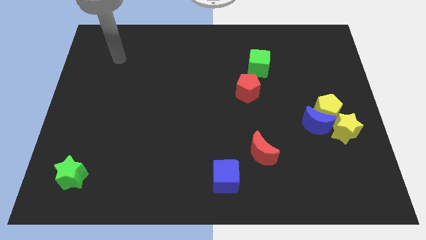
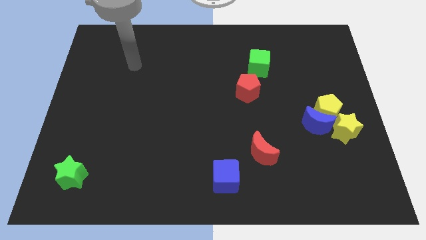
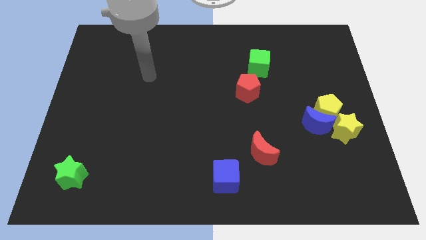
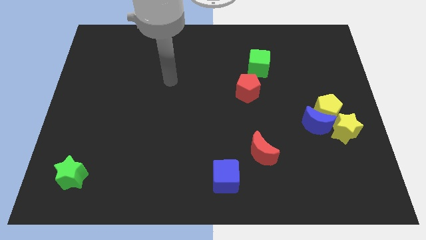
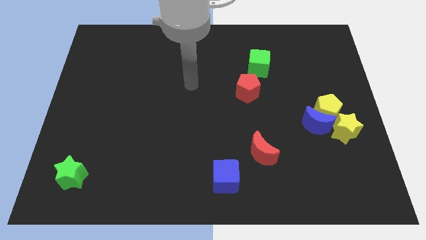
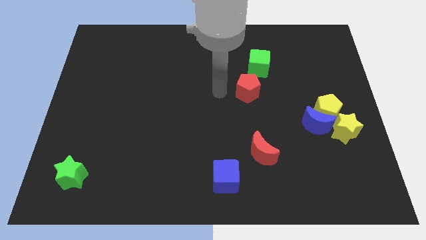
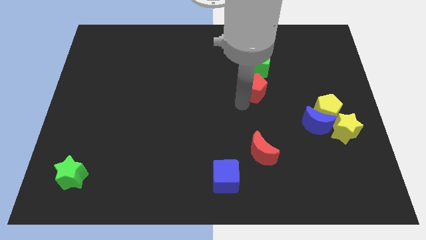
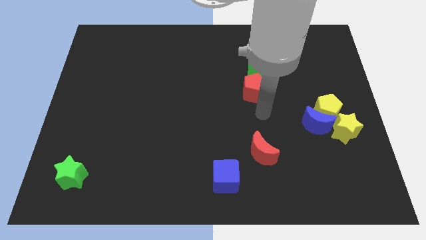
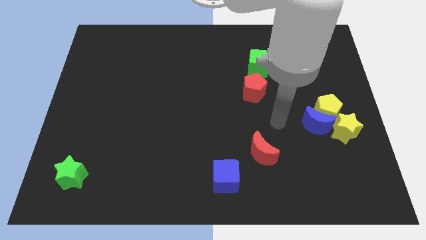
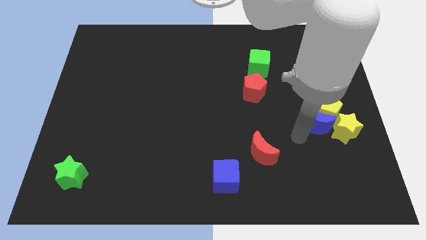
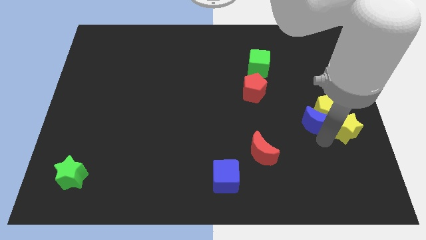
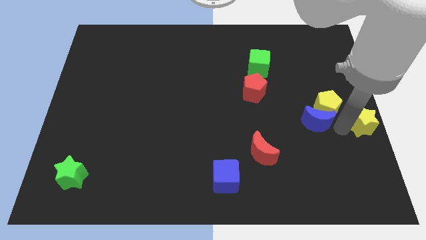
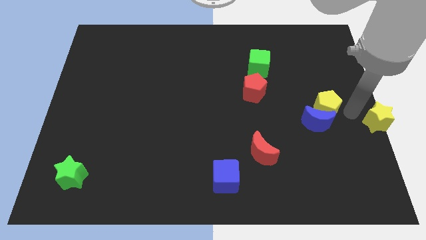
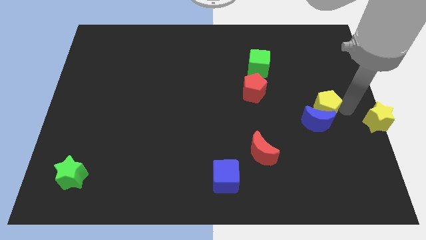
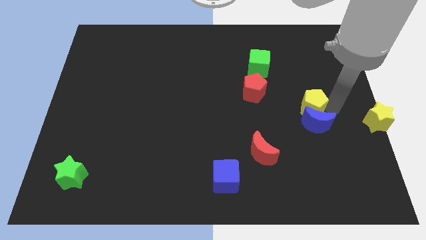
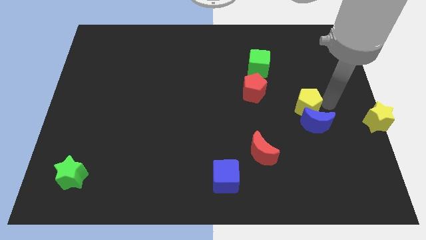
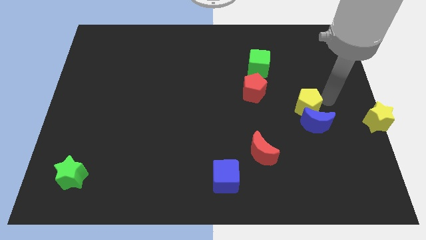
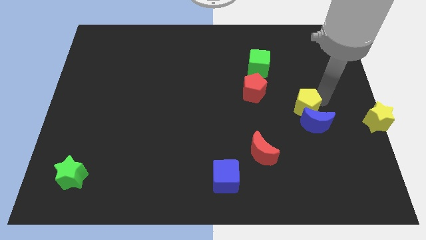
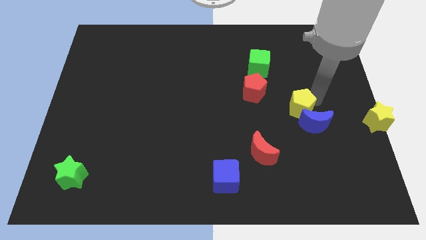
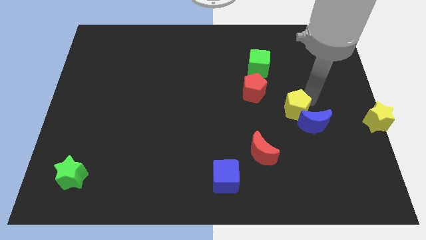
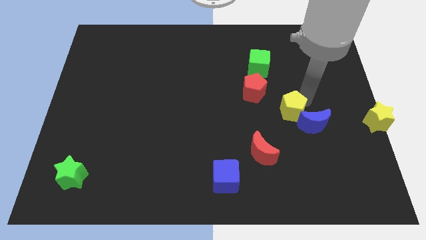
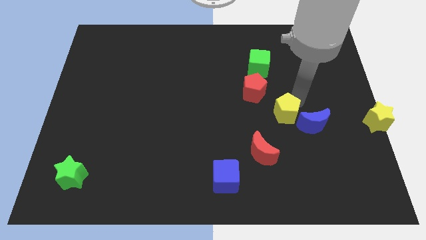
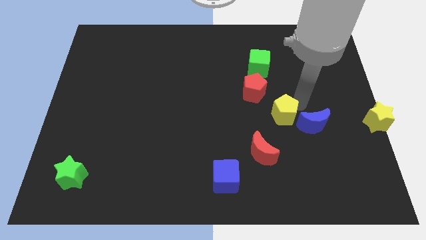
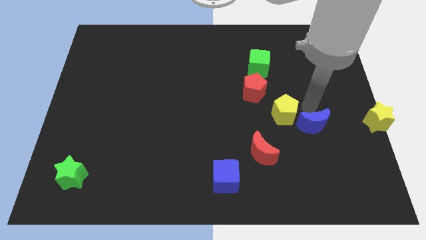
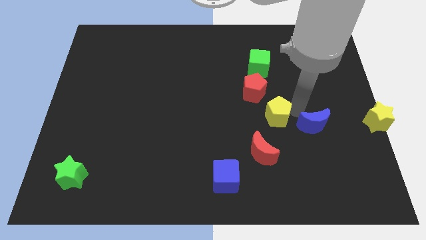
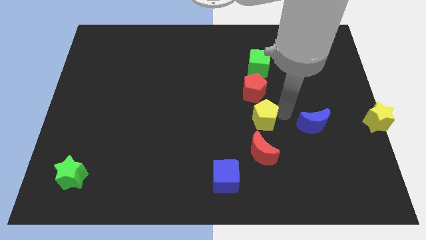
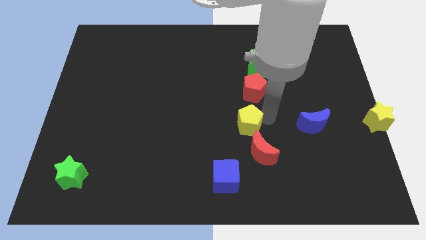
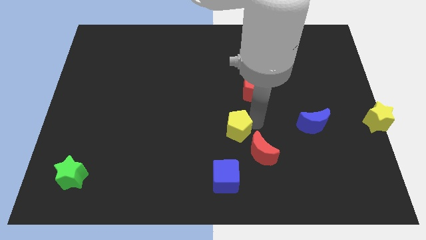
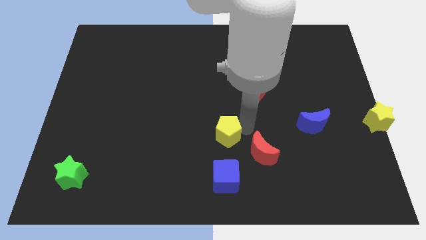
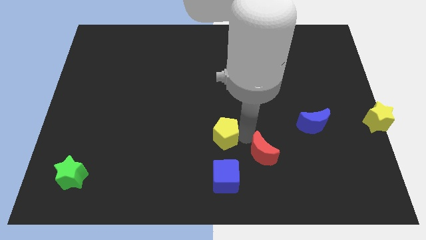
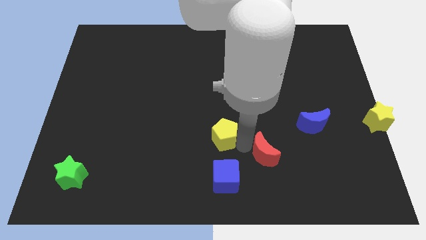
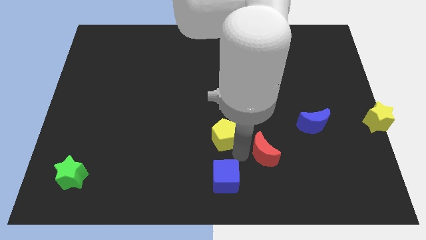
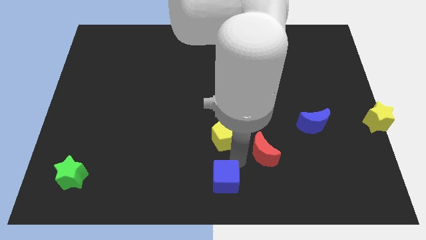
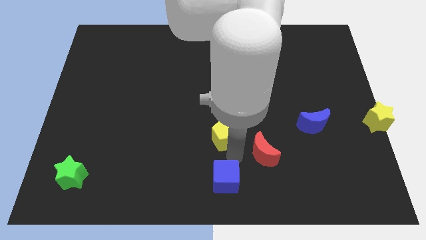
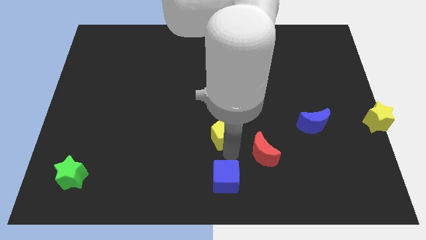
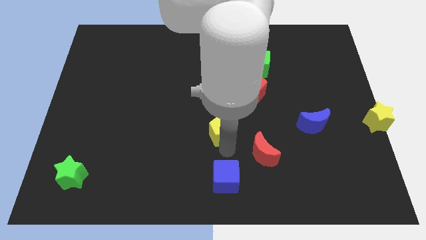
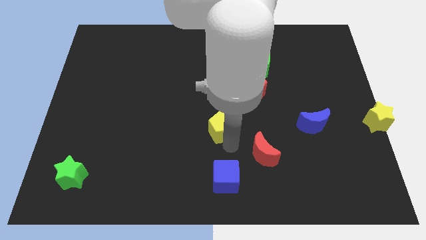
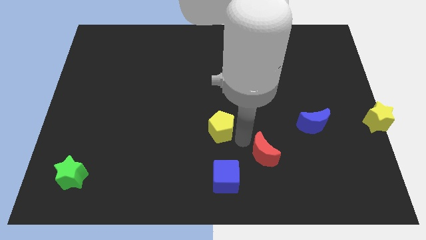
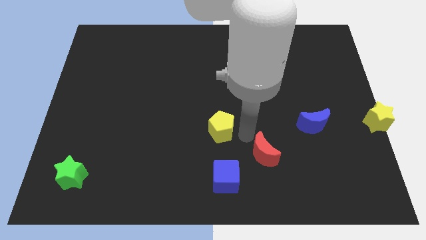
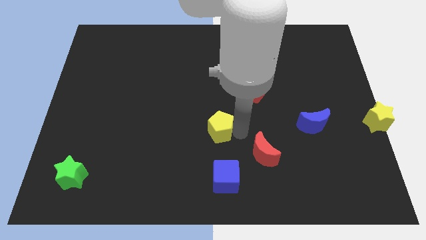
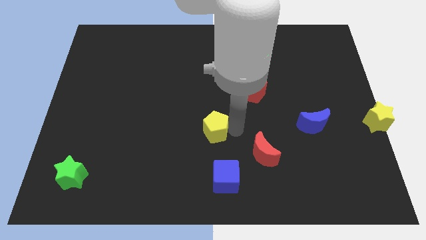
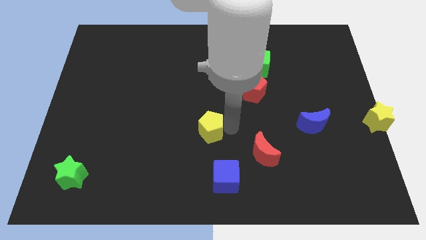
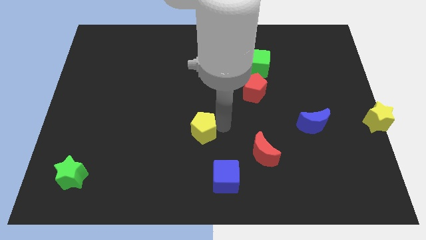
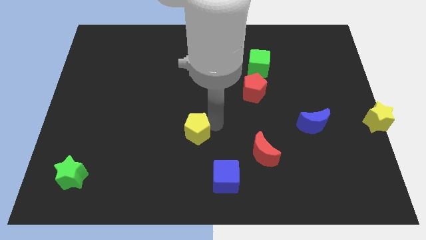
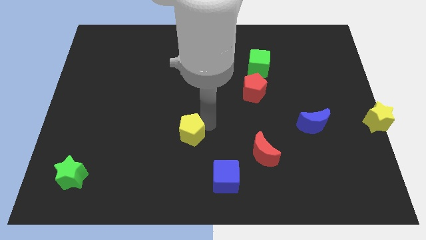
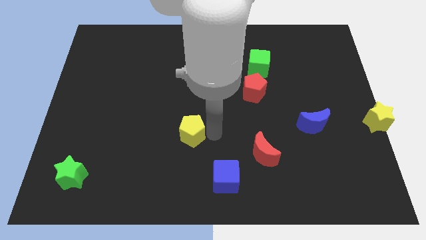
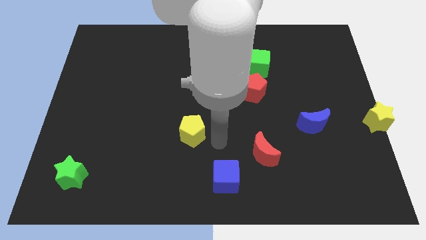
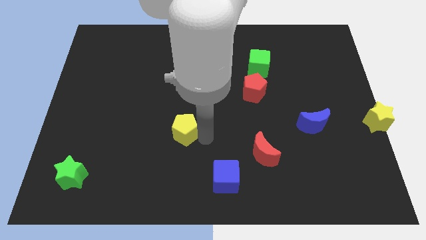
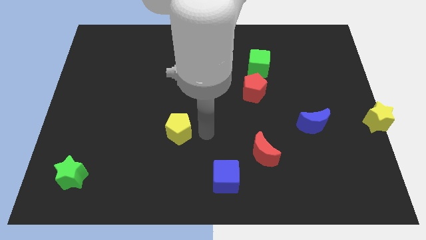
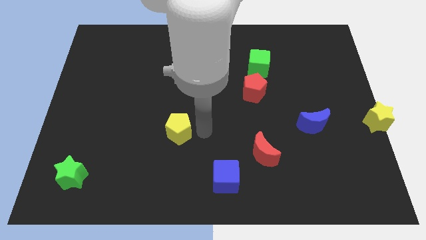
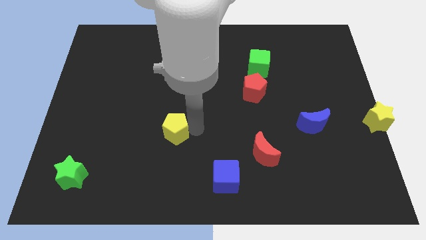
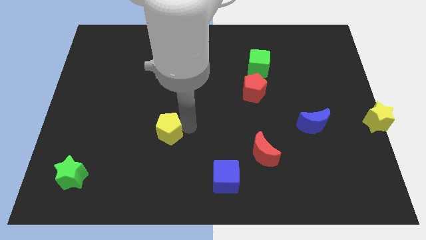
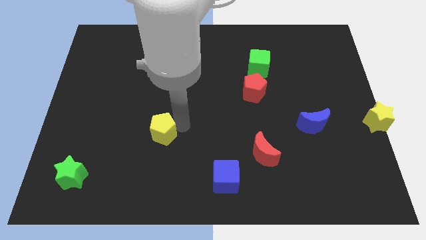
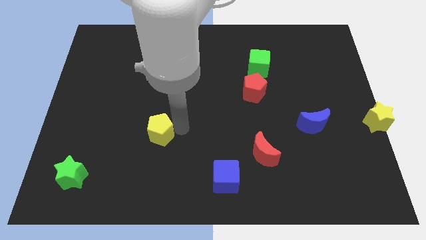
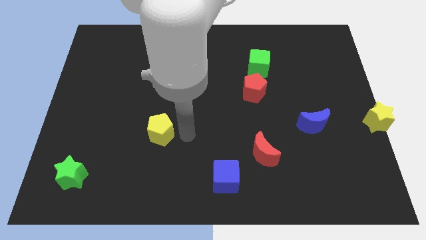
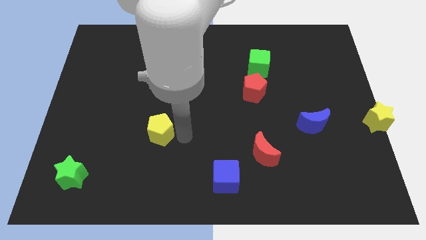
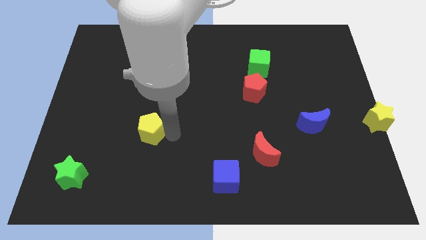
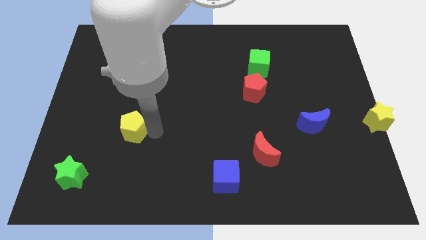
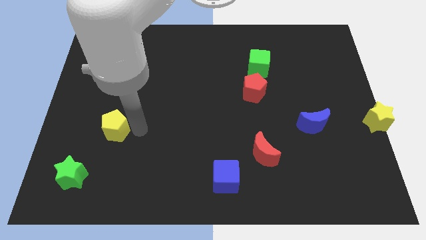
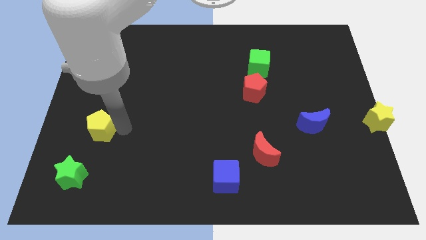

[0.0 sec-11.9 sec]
move the yellow pentagon to the top of the green star
